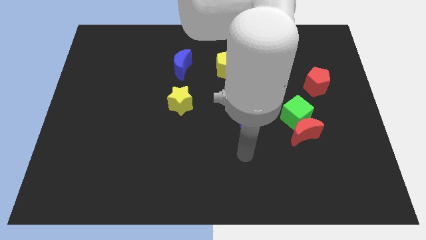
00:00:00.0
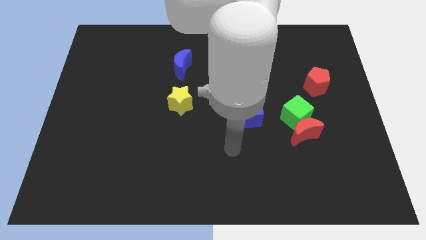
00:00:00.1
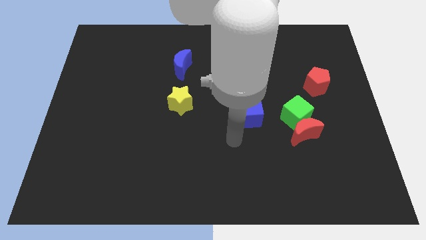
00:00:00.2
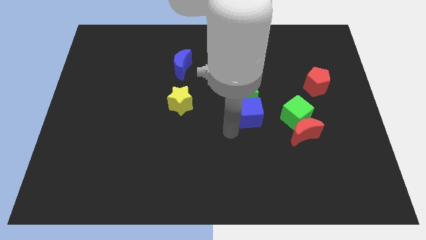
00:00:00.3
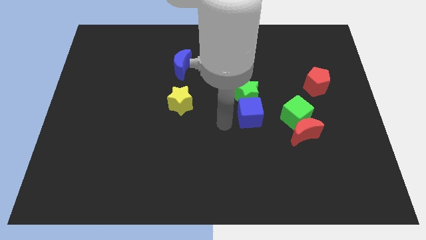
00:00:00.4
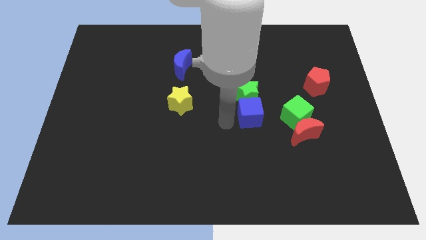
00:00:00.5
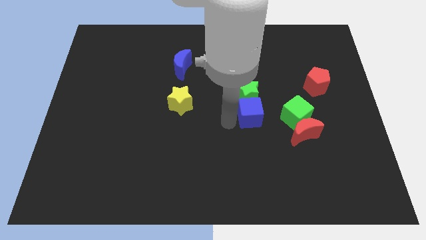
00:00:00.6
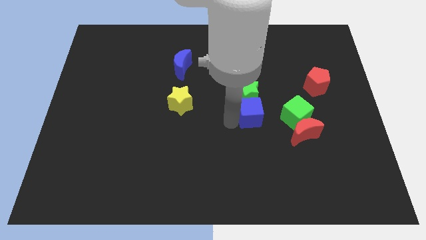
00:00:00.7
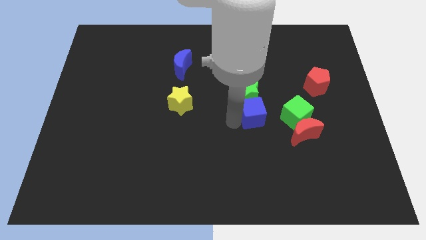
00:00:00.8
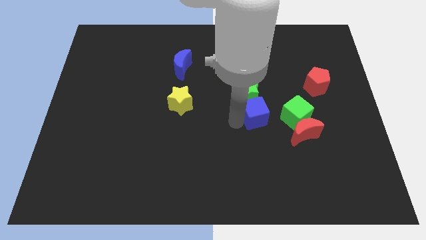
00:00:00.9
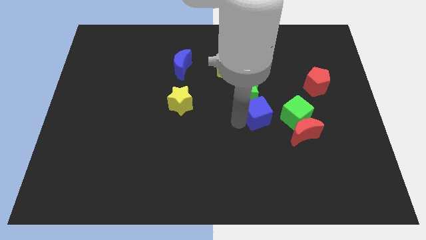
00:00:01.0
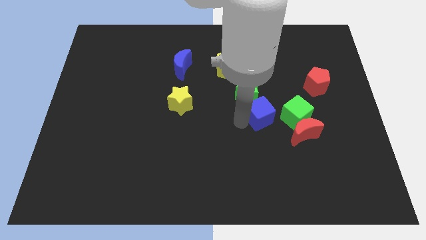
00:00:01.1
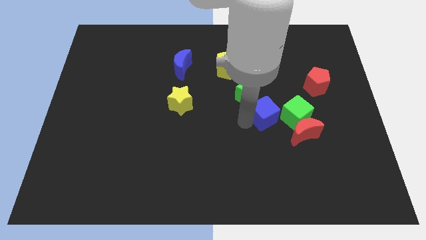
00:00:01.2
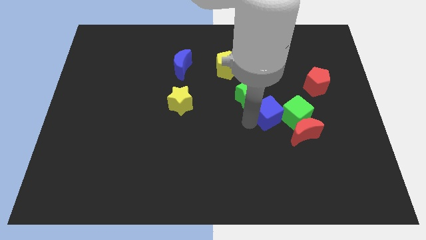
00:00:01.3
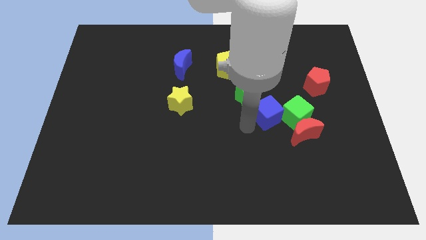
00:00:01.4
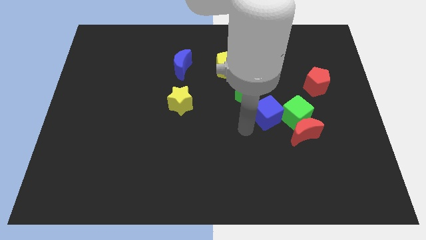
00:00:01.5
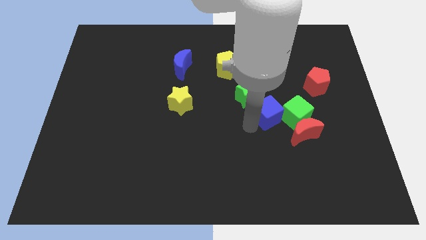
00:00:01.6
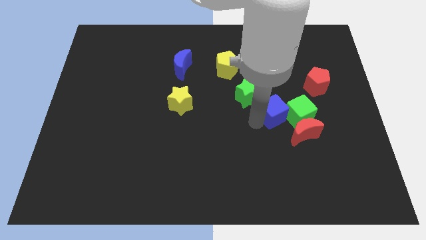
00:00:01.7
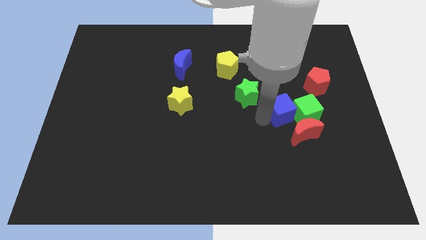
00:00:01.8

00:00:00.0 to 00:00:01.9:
push the blue cube right a little bit

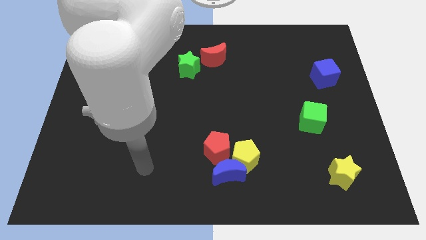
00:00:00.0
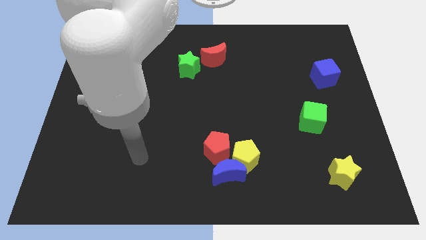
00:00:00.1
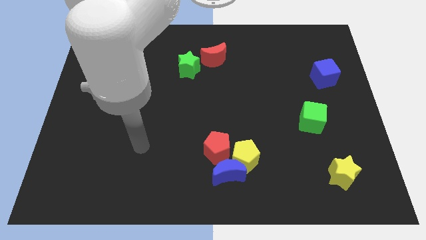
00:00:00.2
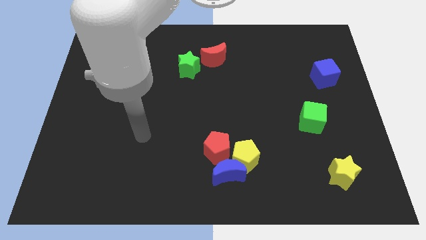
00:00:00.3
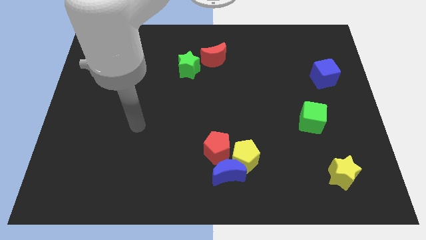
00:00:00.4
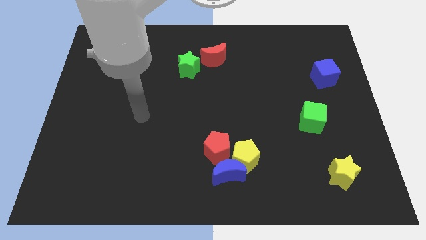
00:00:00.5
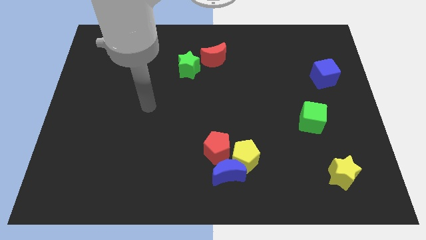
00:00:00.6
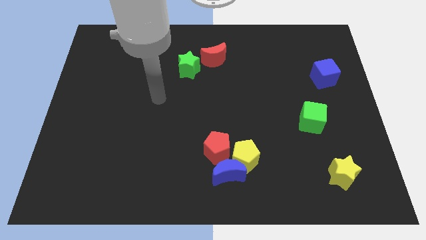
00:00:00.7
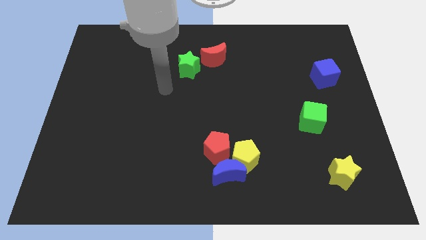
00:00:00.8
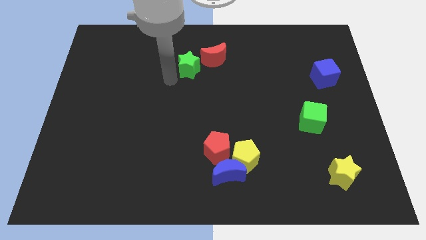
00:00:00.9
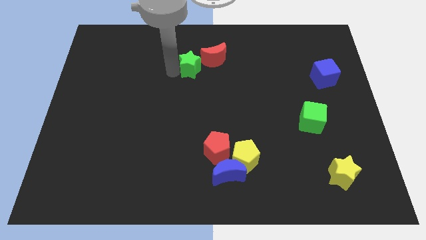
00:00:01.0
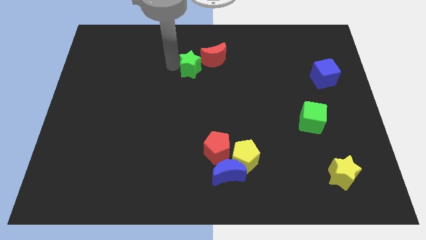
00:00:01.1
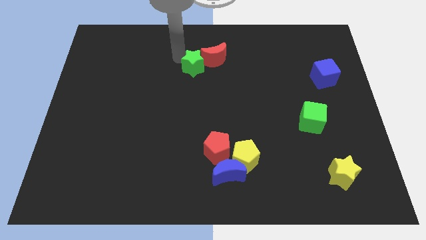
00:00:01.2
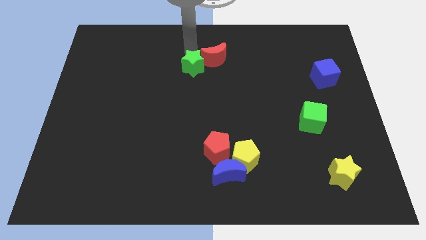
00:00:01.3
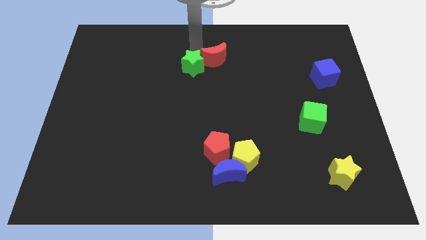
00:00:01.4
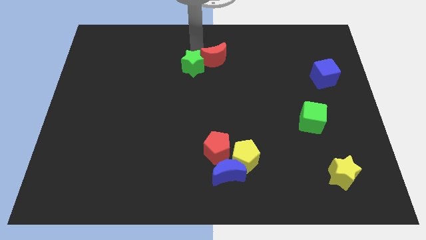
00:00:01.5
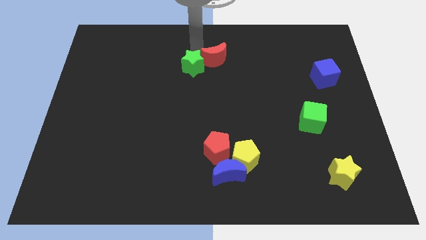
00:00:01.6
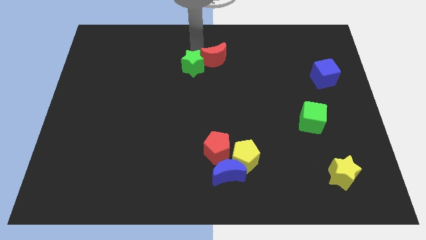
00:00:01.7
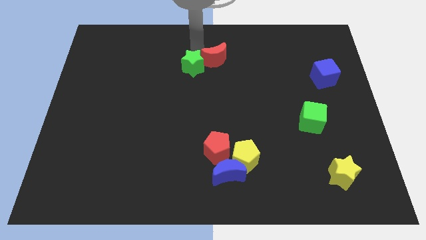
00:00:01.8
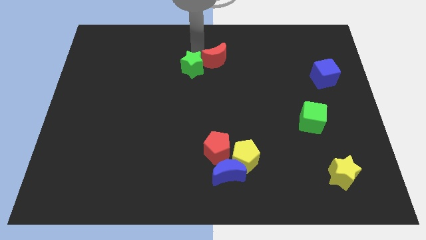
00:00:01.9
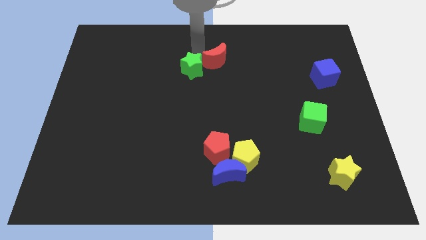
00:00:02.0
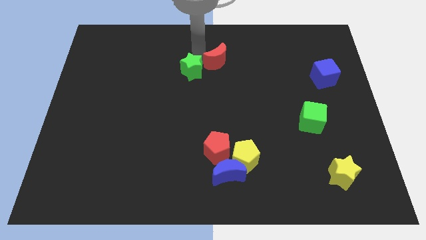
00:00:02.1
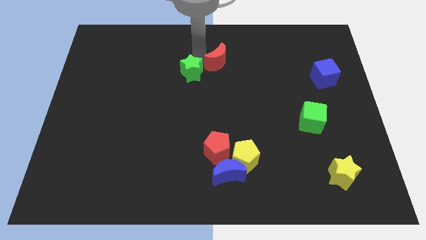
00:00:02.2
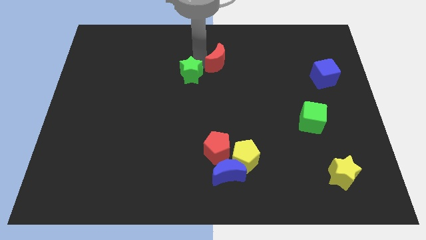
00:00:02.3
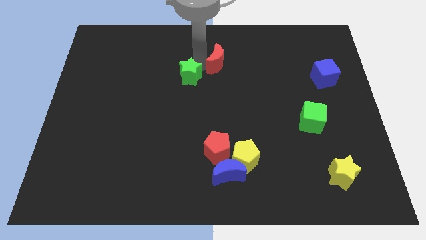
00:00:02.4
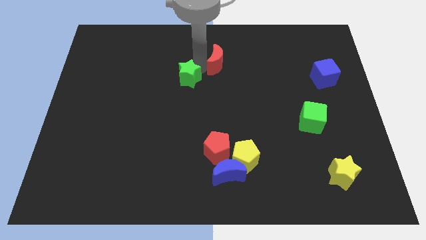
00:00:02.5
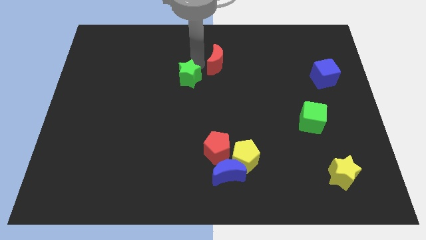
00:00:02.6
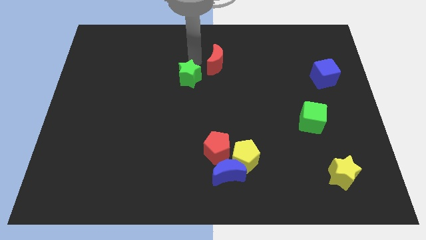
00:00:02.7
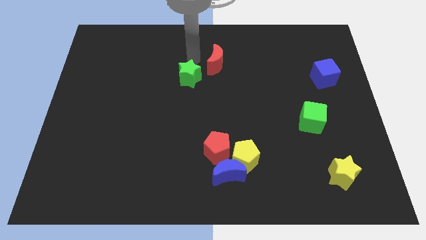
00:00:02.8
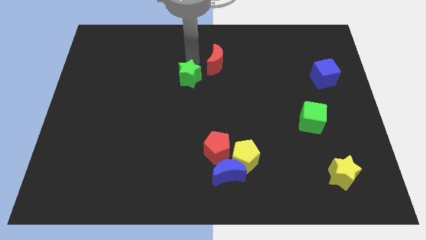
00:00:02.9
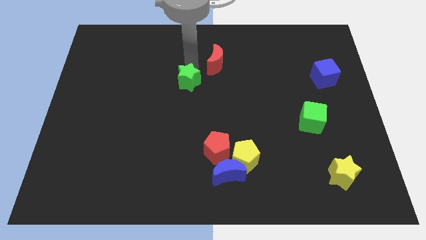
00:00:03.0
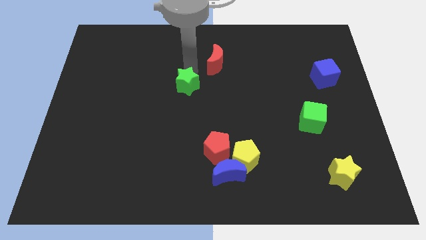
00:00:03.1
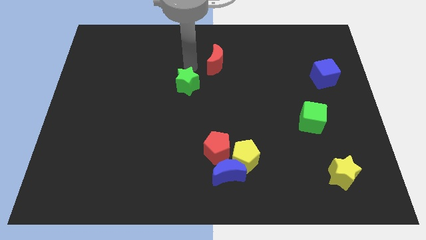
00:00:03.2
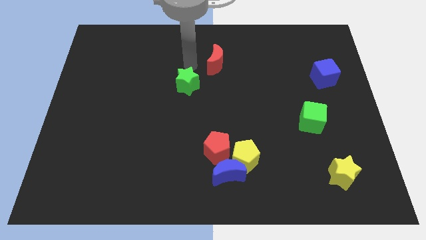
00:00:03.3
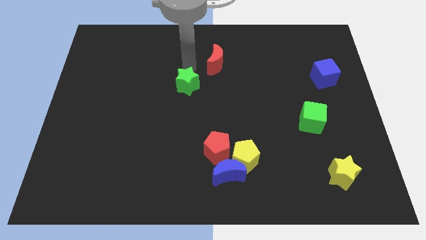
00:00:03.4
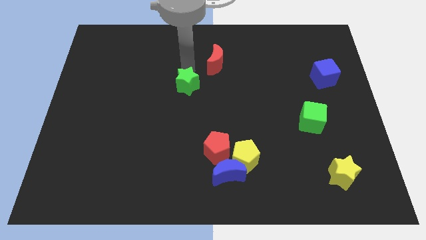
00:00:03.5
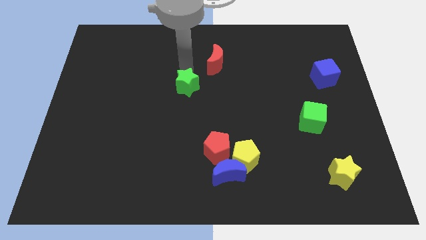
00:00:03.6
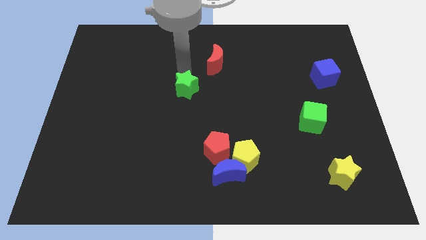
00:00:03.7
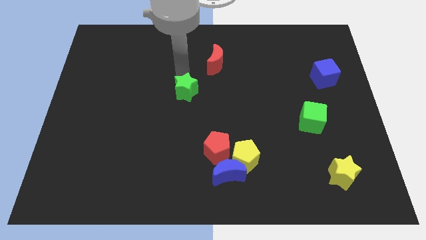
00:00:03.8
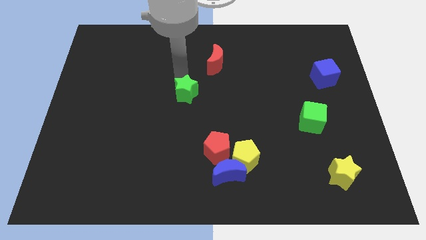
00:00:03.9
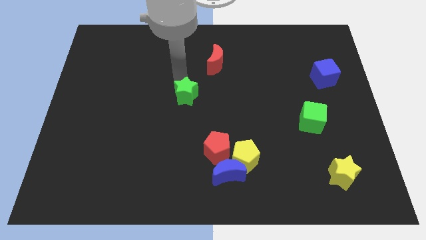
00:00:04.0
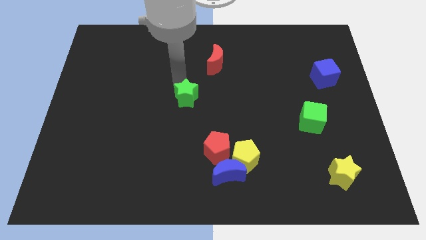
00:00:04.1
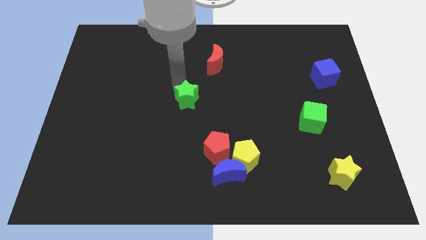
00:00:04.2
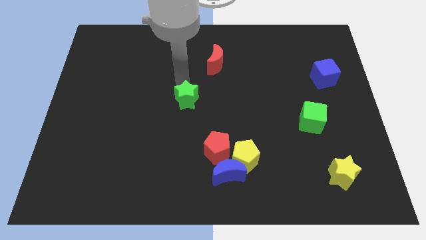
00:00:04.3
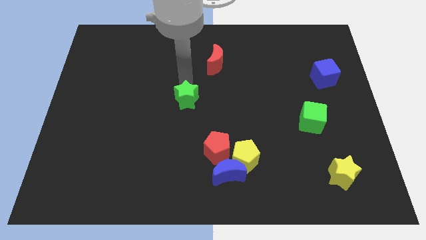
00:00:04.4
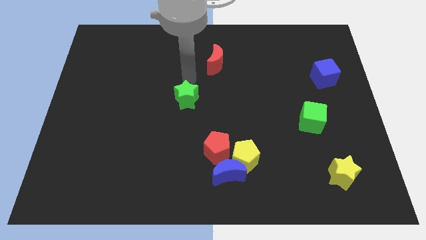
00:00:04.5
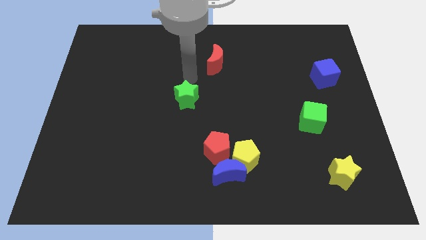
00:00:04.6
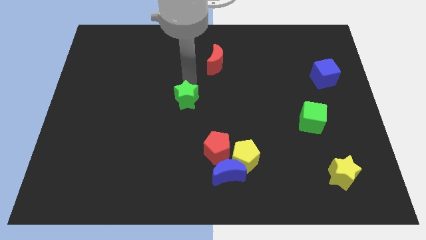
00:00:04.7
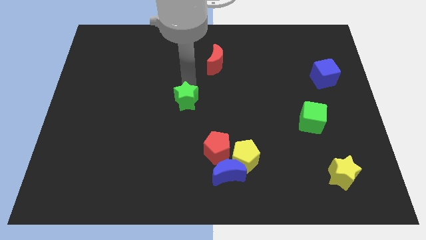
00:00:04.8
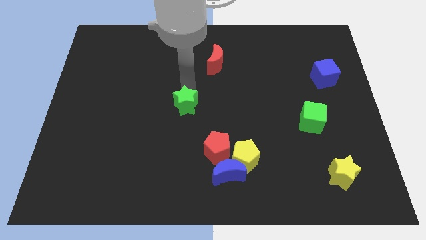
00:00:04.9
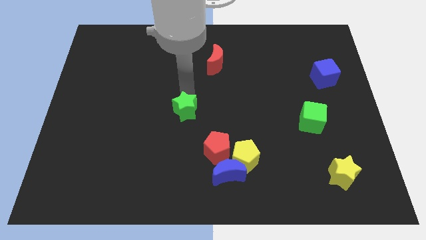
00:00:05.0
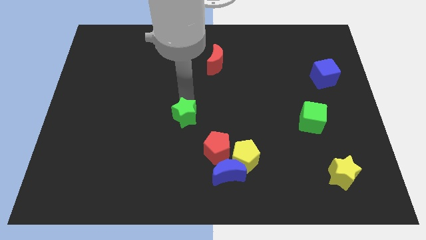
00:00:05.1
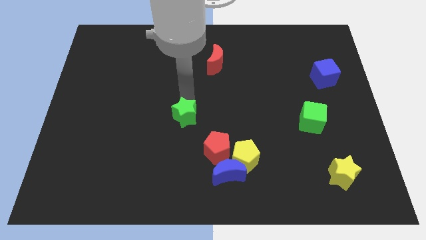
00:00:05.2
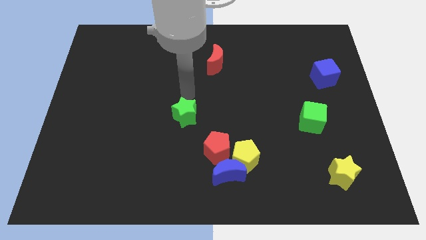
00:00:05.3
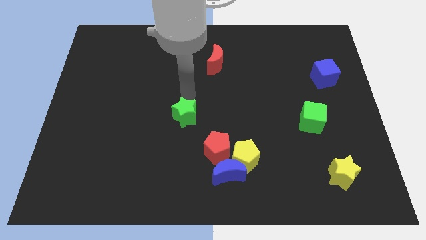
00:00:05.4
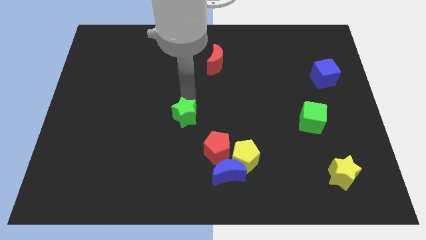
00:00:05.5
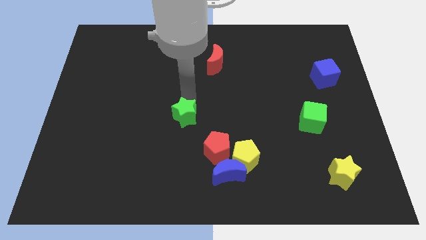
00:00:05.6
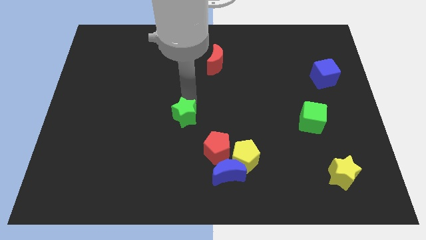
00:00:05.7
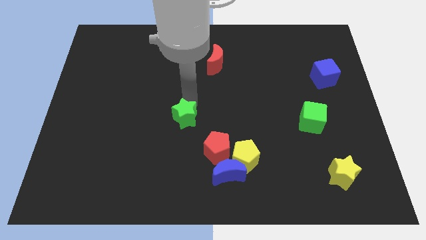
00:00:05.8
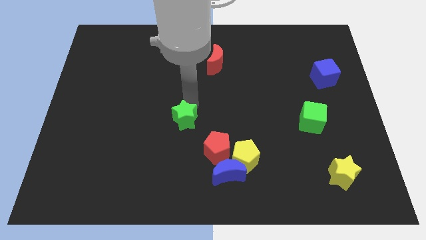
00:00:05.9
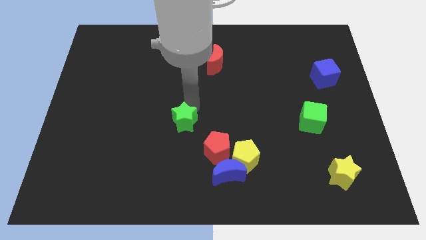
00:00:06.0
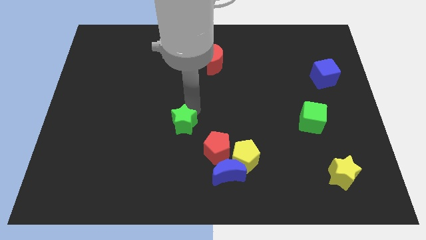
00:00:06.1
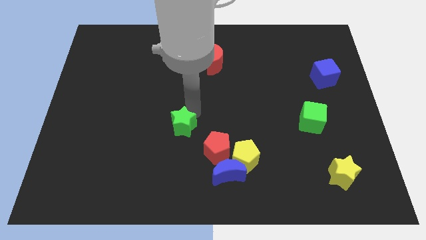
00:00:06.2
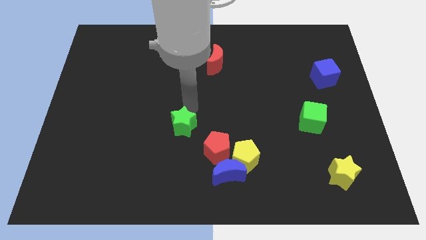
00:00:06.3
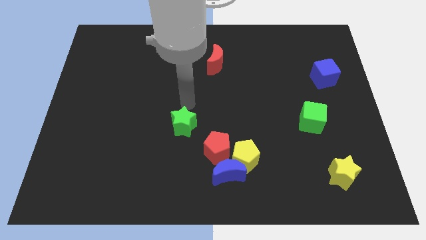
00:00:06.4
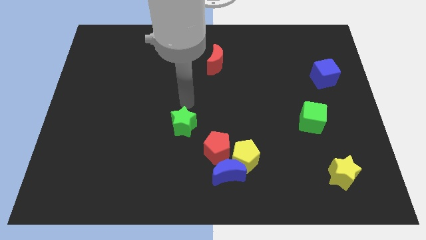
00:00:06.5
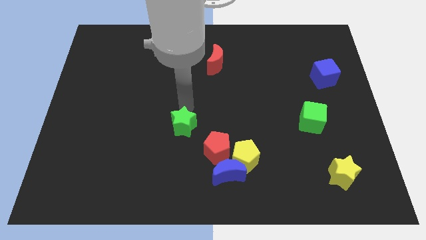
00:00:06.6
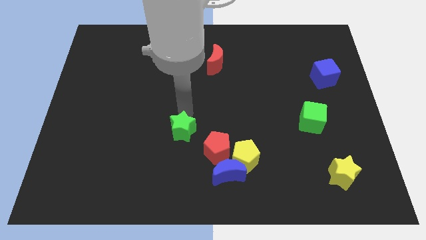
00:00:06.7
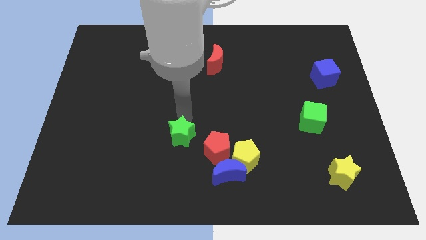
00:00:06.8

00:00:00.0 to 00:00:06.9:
push the green star downwards
